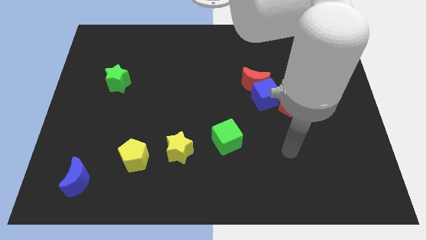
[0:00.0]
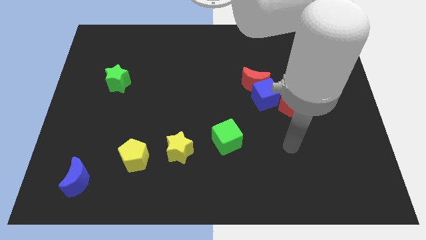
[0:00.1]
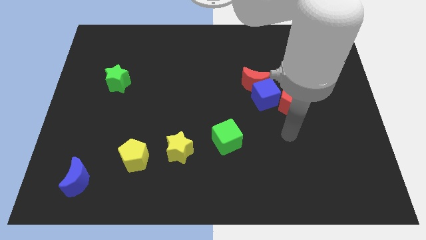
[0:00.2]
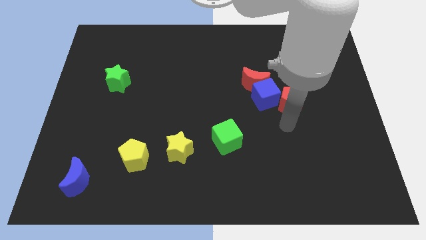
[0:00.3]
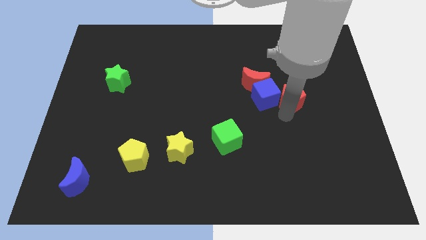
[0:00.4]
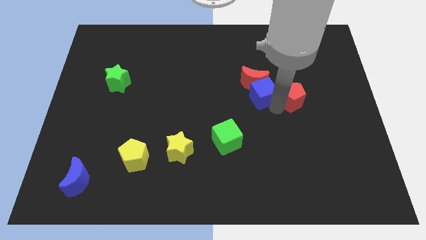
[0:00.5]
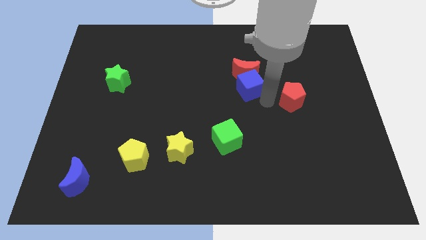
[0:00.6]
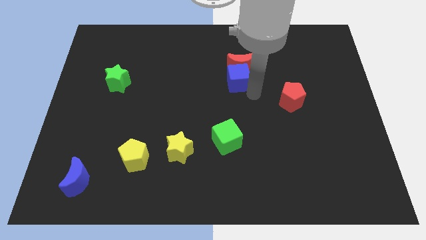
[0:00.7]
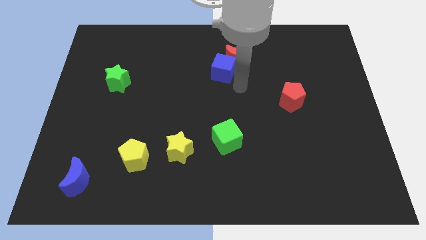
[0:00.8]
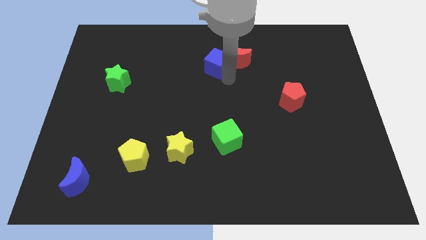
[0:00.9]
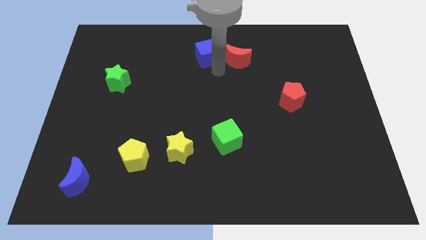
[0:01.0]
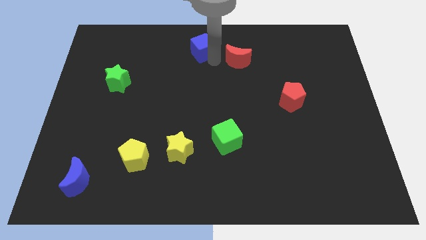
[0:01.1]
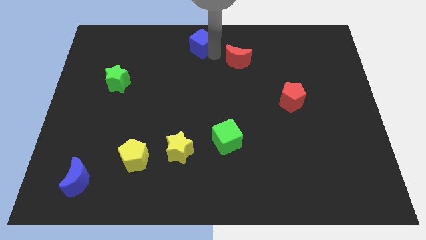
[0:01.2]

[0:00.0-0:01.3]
separate the red moon from the blue cube

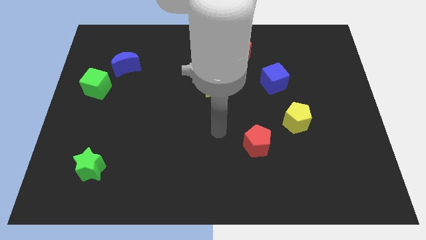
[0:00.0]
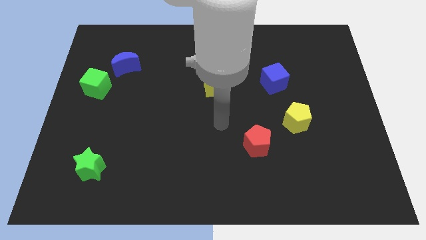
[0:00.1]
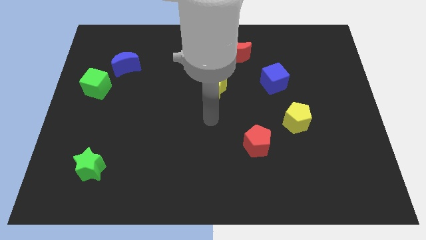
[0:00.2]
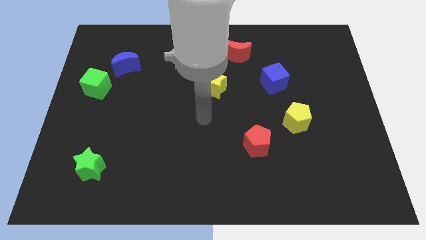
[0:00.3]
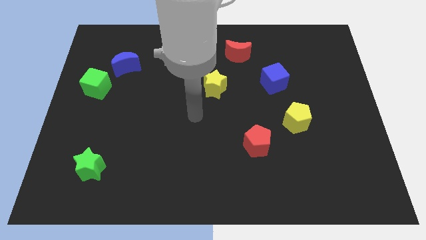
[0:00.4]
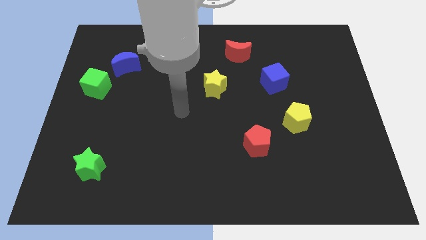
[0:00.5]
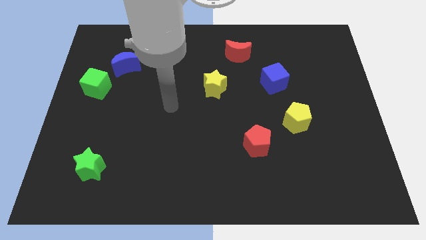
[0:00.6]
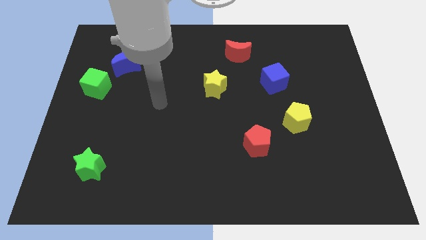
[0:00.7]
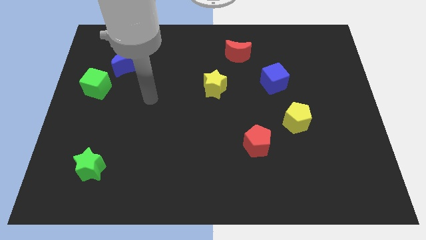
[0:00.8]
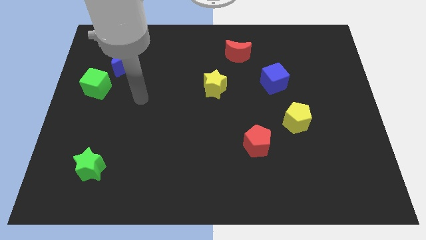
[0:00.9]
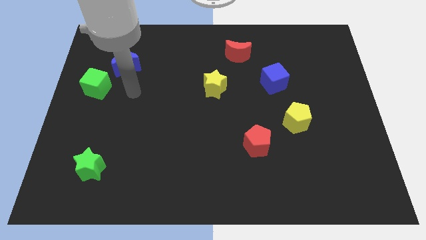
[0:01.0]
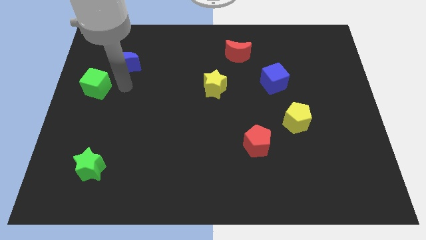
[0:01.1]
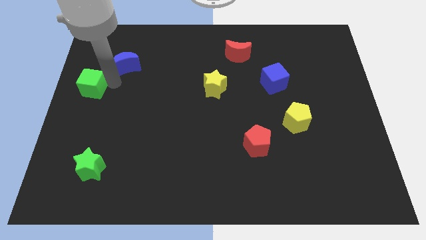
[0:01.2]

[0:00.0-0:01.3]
move the blue moon away from the green cube

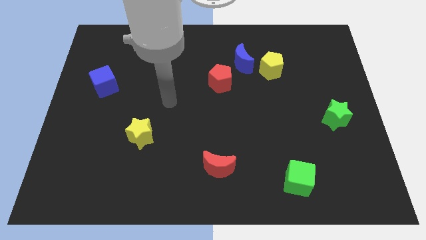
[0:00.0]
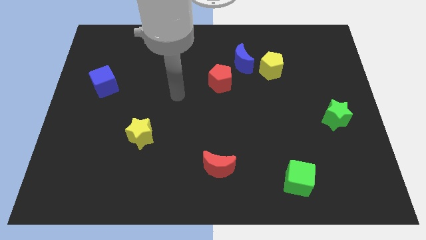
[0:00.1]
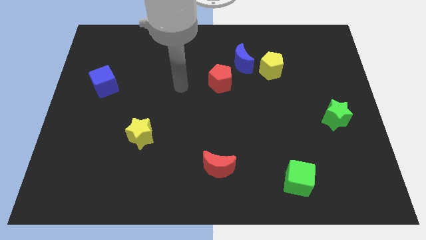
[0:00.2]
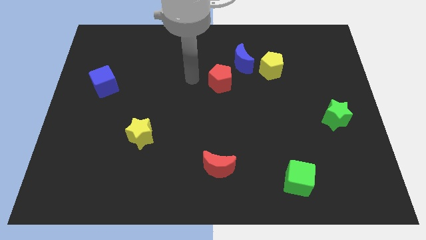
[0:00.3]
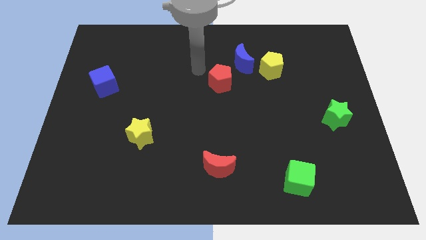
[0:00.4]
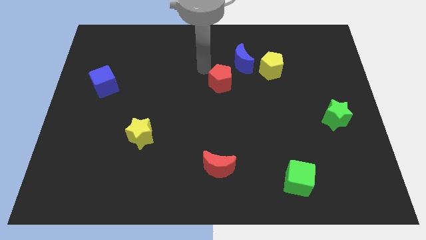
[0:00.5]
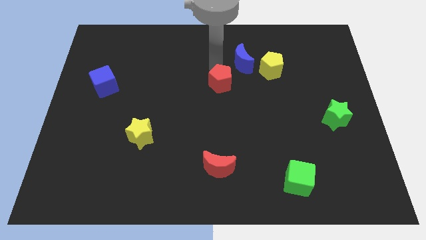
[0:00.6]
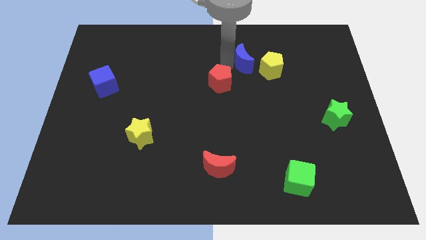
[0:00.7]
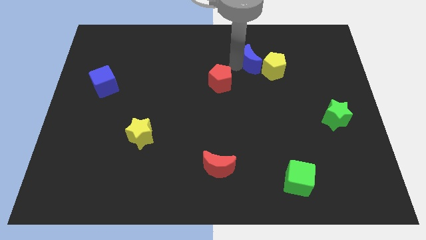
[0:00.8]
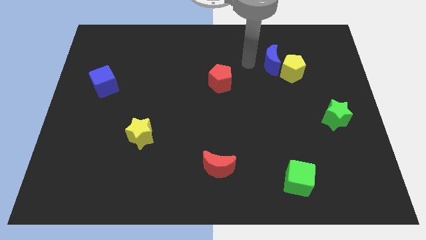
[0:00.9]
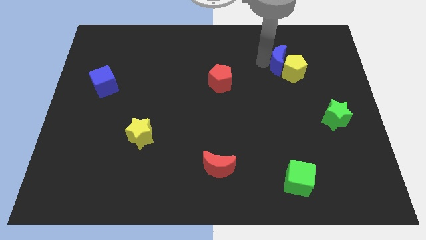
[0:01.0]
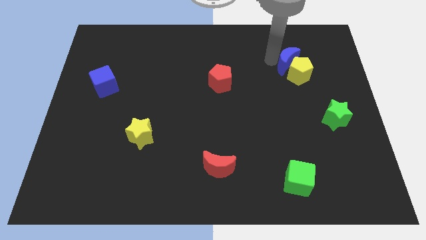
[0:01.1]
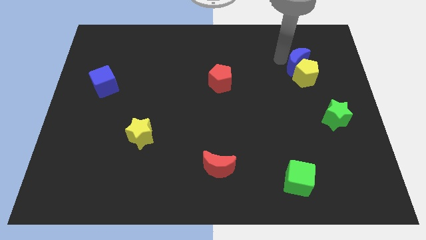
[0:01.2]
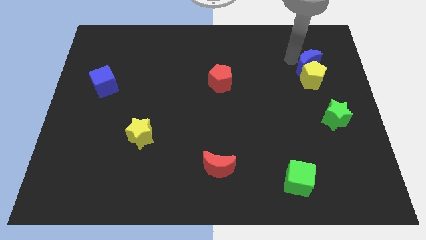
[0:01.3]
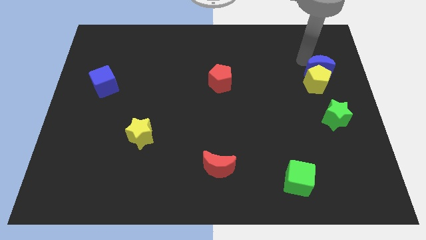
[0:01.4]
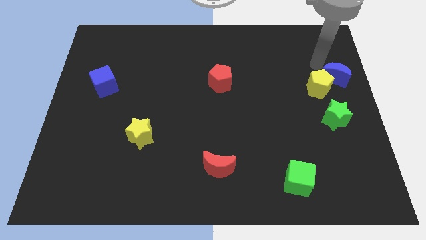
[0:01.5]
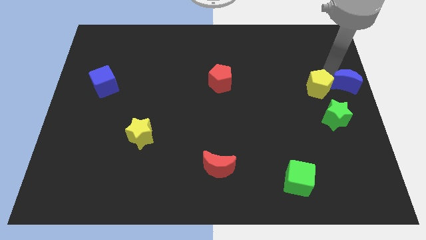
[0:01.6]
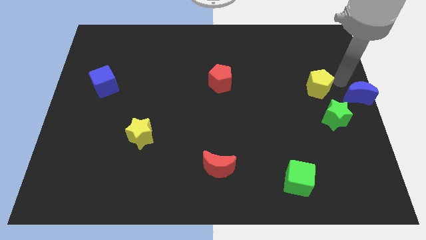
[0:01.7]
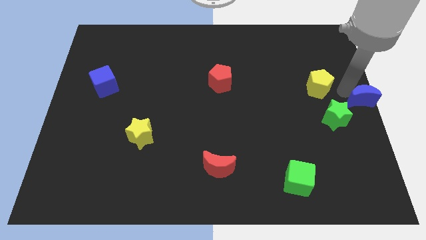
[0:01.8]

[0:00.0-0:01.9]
pull the yellow pentagon apart from the blue moon

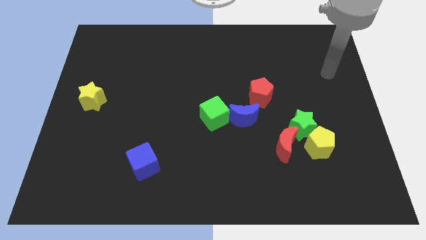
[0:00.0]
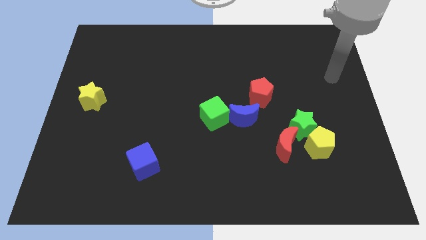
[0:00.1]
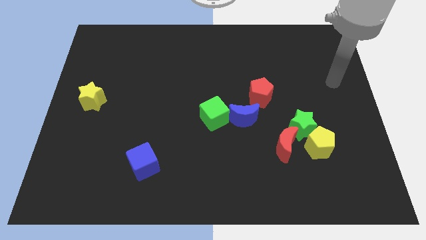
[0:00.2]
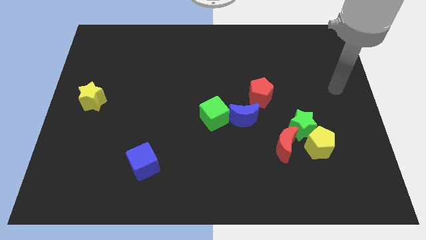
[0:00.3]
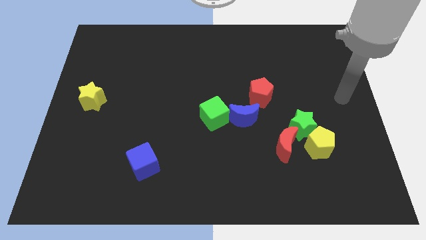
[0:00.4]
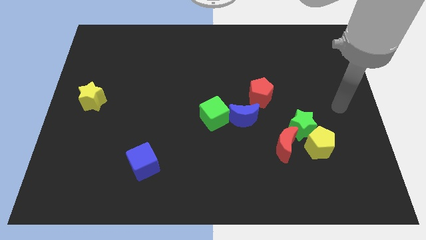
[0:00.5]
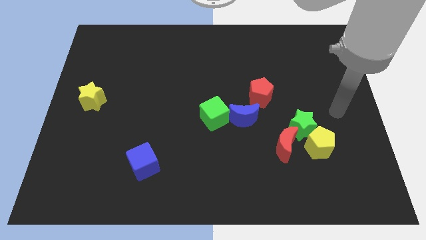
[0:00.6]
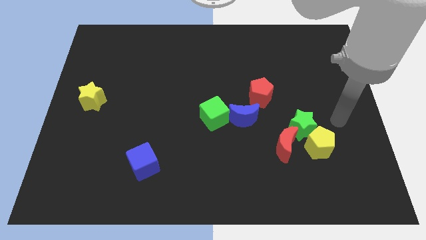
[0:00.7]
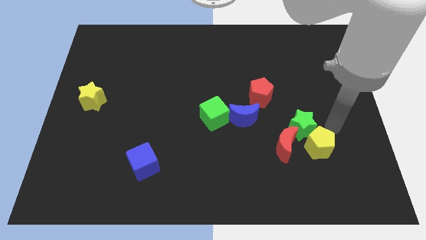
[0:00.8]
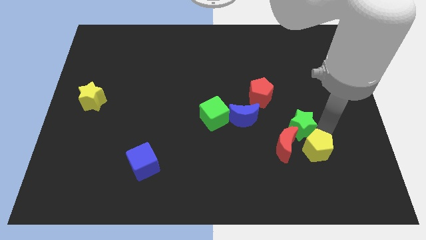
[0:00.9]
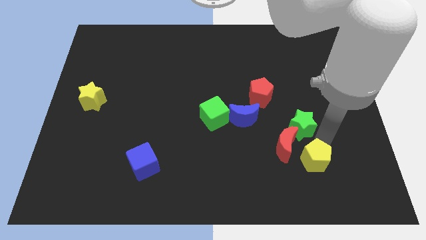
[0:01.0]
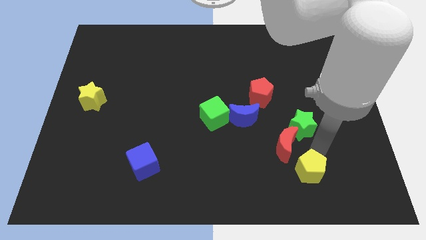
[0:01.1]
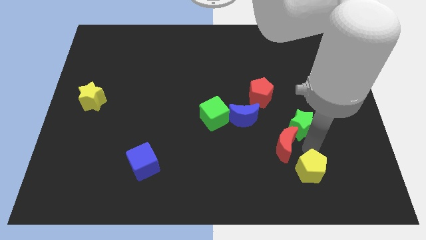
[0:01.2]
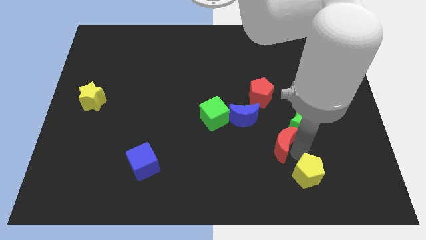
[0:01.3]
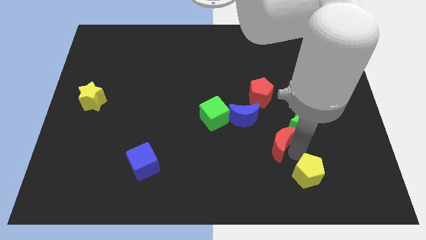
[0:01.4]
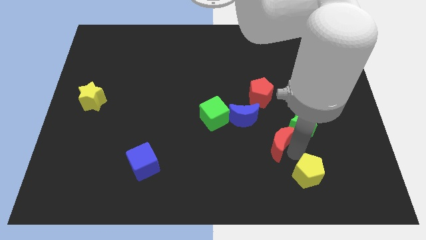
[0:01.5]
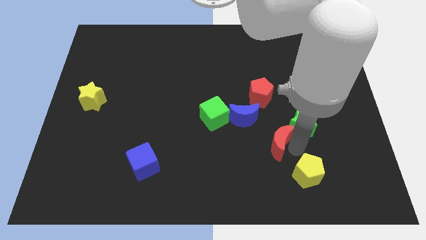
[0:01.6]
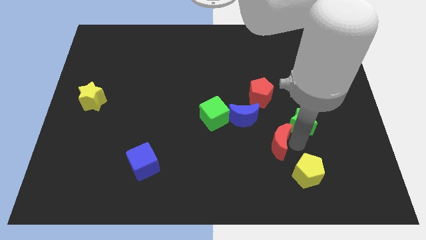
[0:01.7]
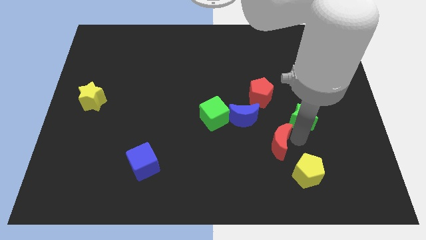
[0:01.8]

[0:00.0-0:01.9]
move the green star away from the yellow pentagon and red moon

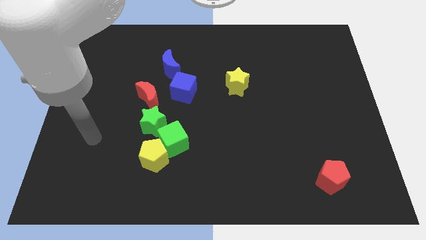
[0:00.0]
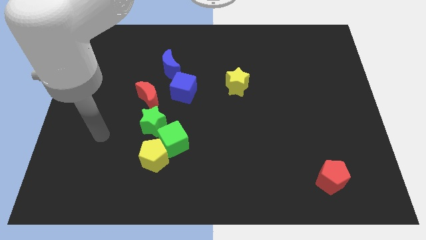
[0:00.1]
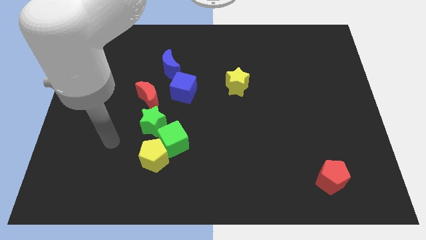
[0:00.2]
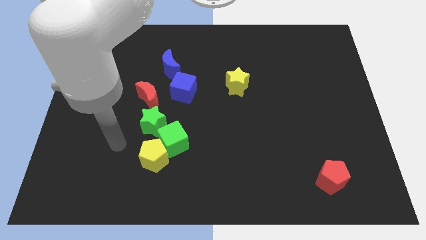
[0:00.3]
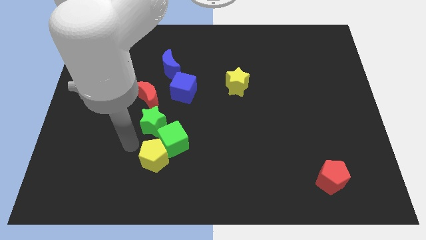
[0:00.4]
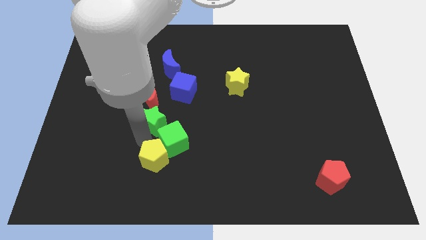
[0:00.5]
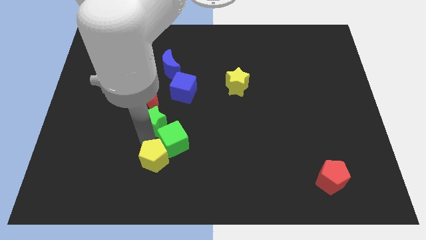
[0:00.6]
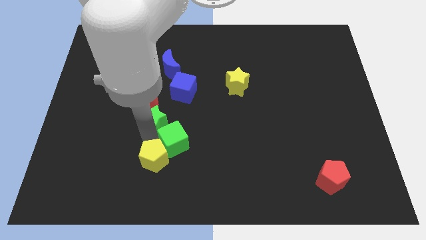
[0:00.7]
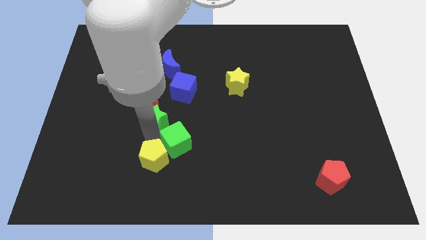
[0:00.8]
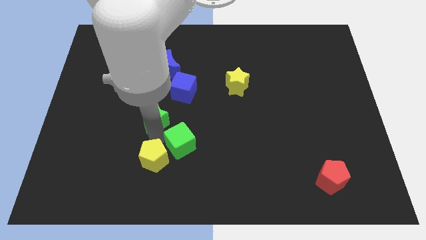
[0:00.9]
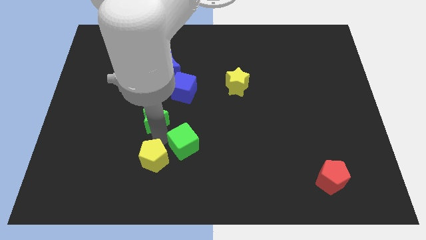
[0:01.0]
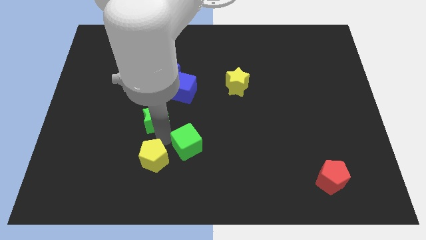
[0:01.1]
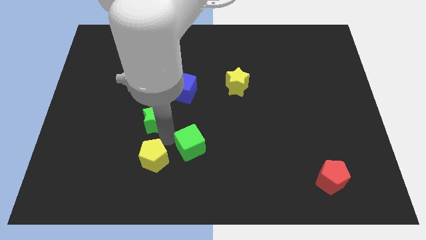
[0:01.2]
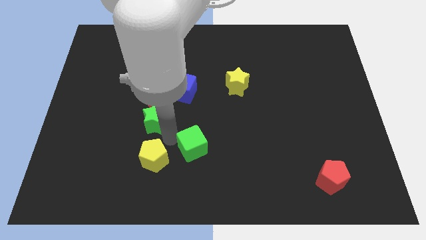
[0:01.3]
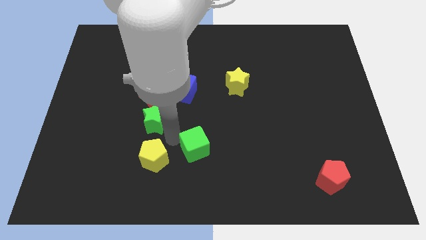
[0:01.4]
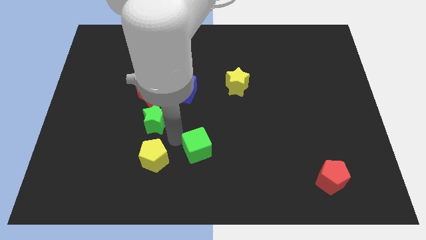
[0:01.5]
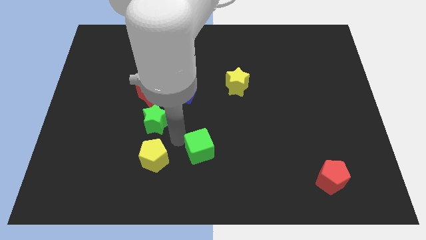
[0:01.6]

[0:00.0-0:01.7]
pull the green cube apart from the yellow pentagon and green star

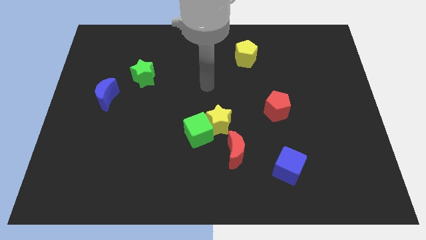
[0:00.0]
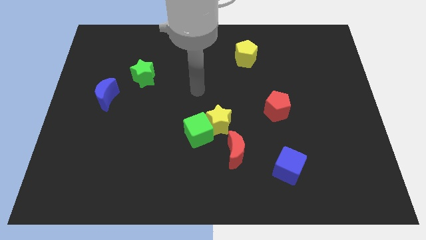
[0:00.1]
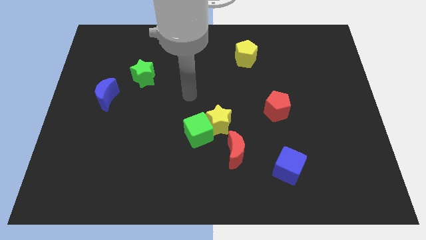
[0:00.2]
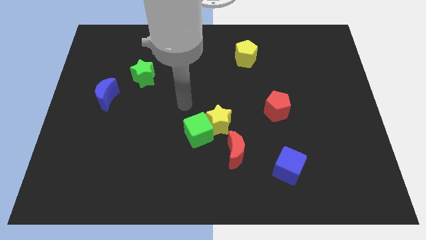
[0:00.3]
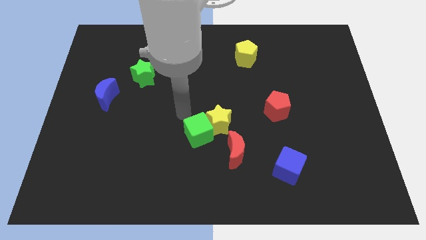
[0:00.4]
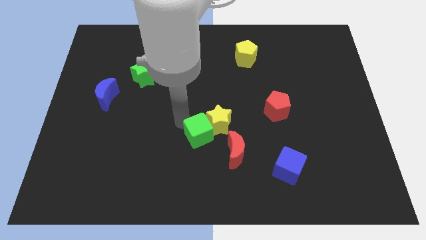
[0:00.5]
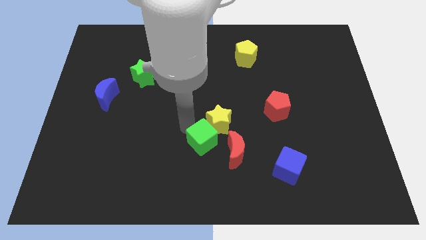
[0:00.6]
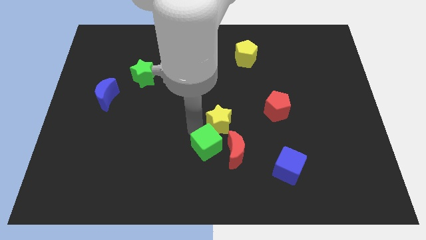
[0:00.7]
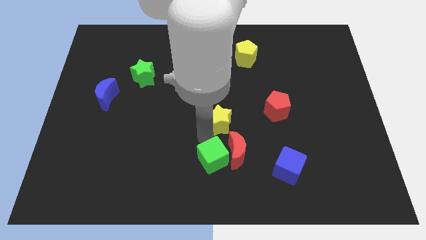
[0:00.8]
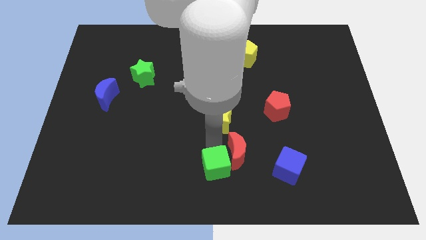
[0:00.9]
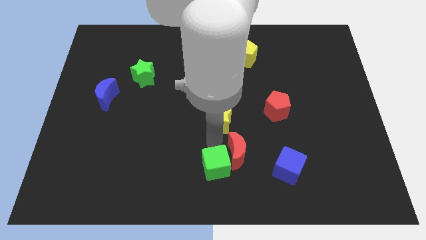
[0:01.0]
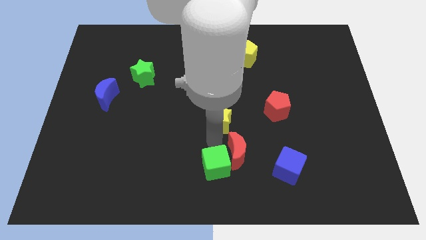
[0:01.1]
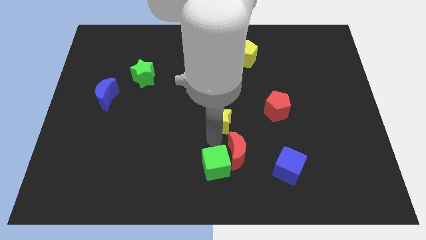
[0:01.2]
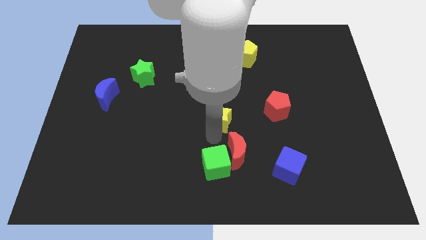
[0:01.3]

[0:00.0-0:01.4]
move the yellow star away from the green cube and red moon
